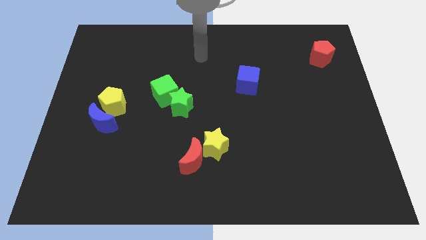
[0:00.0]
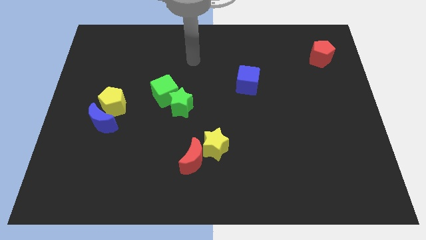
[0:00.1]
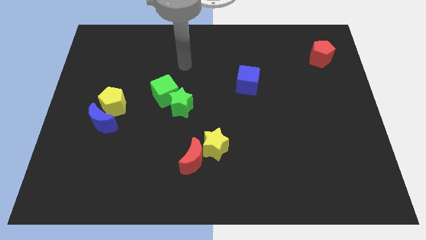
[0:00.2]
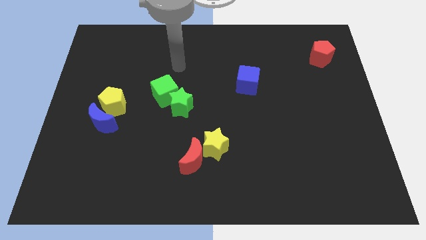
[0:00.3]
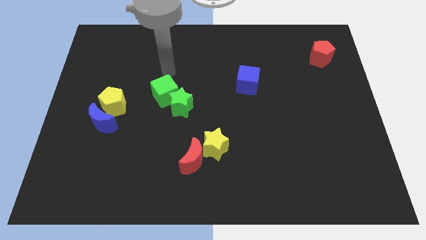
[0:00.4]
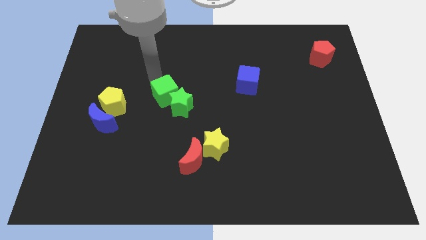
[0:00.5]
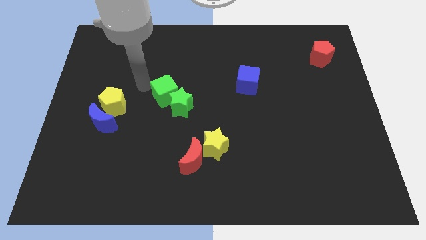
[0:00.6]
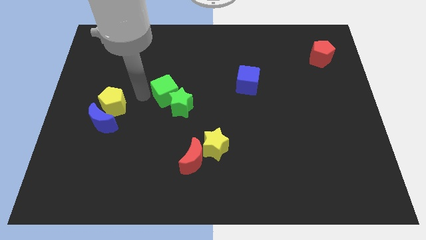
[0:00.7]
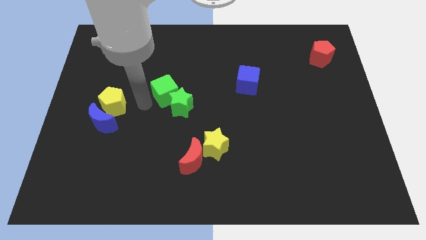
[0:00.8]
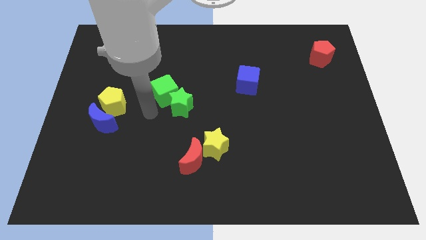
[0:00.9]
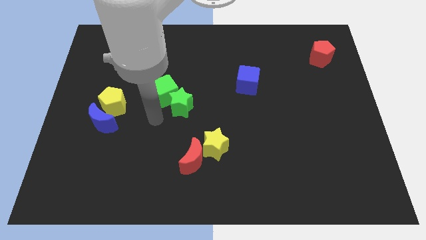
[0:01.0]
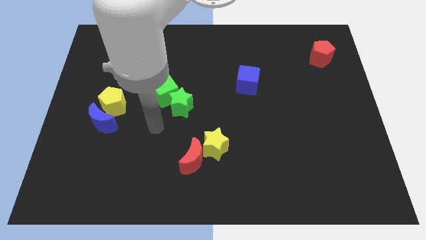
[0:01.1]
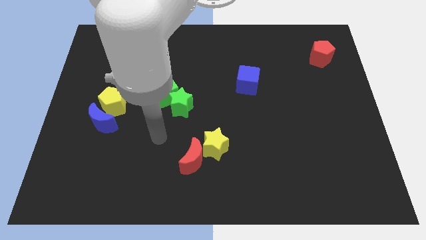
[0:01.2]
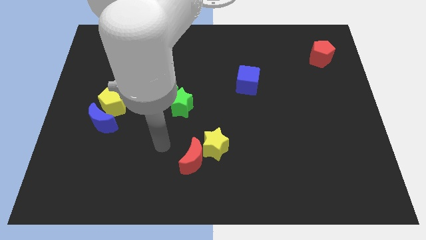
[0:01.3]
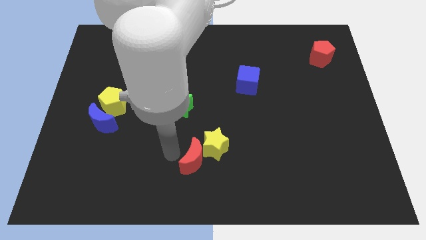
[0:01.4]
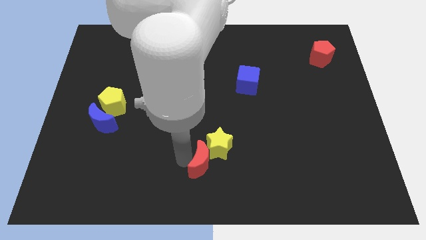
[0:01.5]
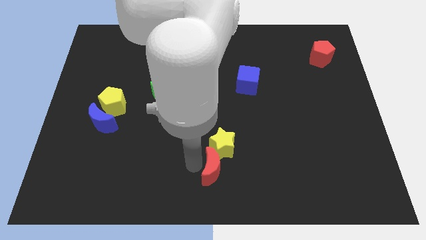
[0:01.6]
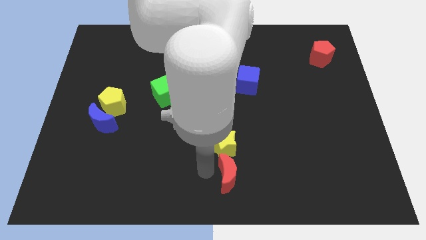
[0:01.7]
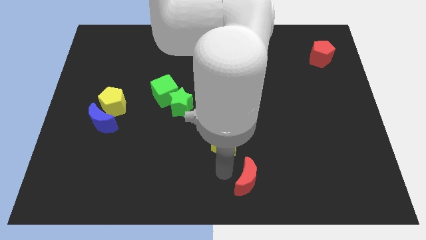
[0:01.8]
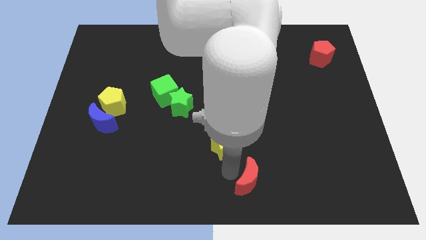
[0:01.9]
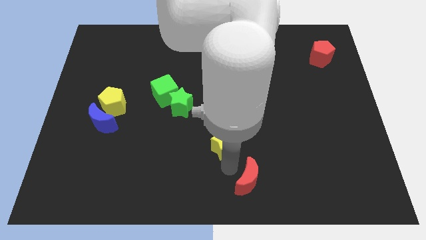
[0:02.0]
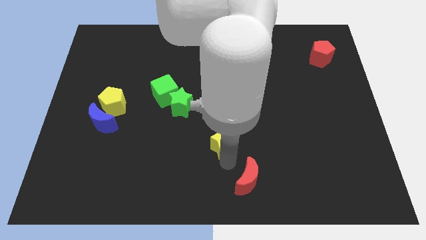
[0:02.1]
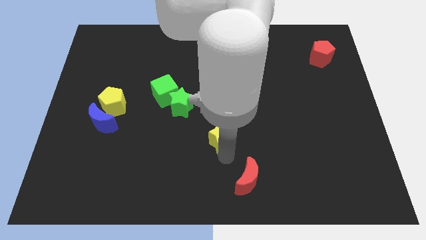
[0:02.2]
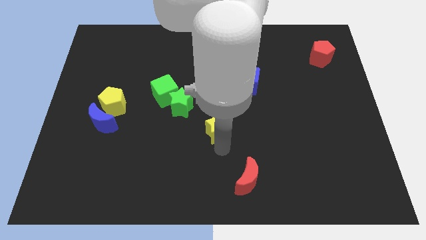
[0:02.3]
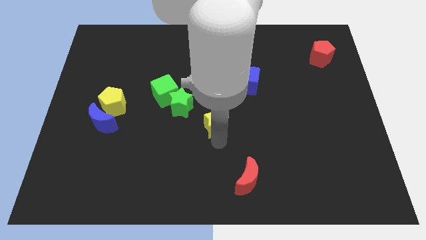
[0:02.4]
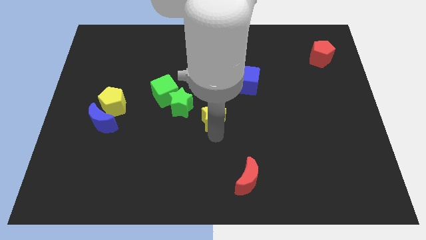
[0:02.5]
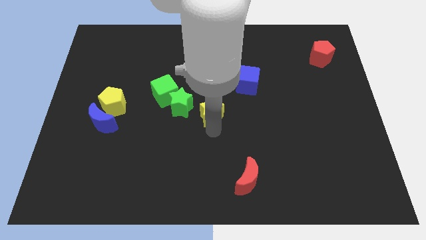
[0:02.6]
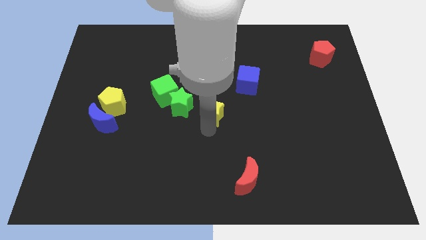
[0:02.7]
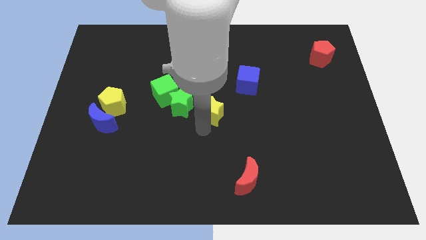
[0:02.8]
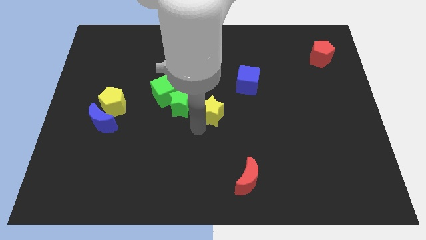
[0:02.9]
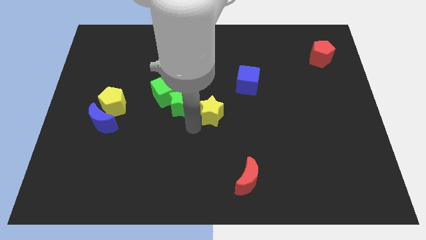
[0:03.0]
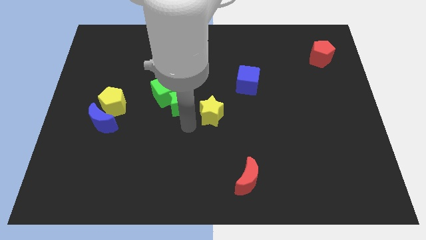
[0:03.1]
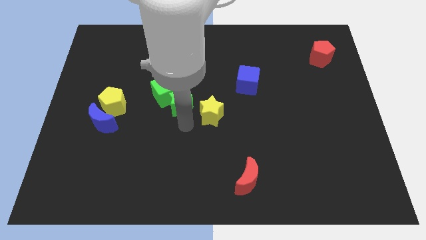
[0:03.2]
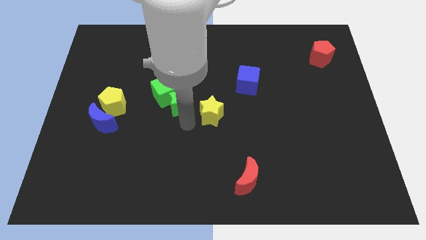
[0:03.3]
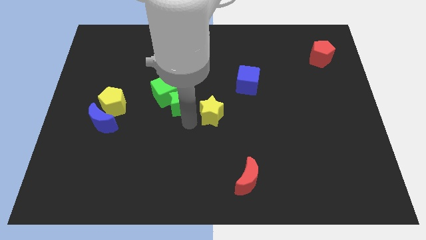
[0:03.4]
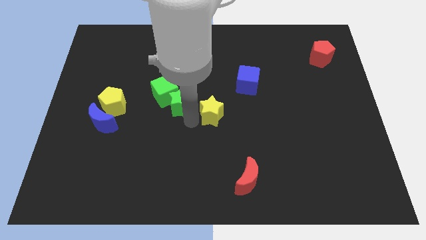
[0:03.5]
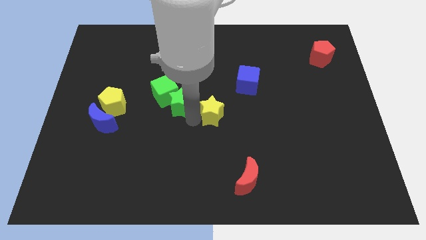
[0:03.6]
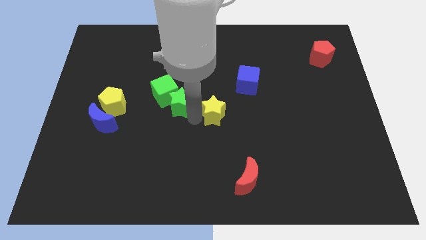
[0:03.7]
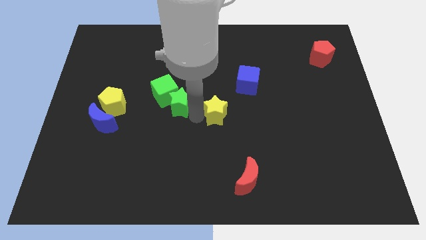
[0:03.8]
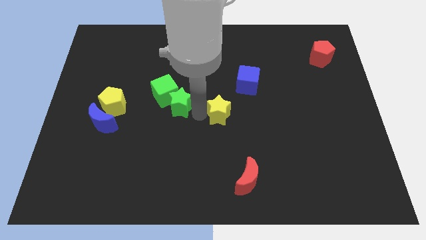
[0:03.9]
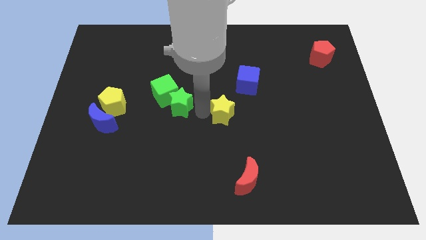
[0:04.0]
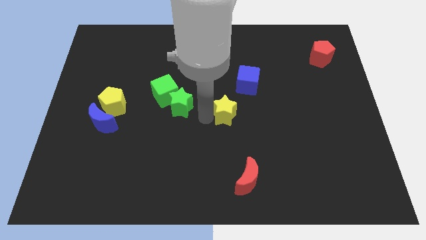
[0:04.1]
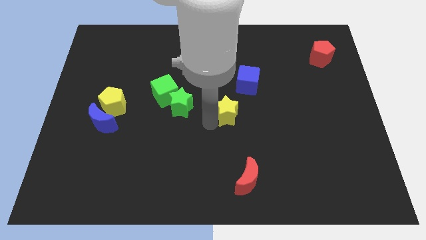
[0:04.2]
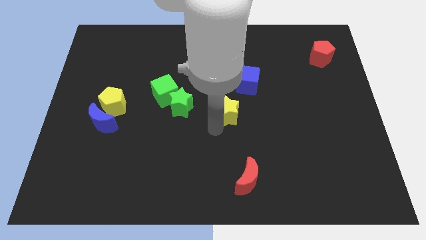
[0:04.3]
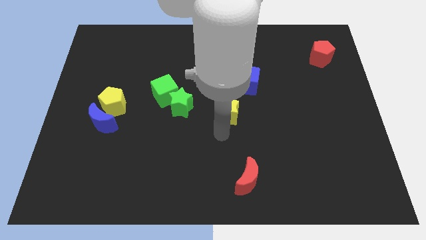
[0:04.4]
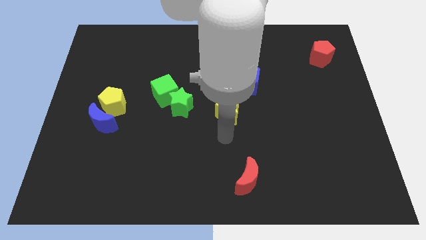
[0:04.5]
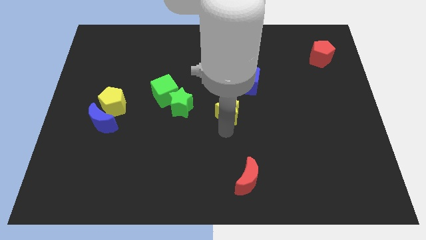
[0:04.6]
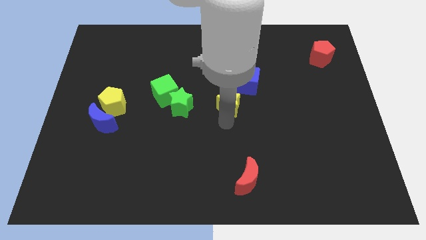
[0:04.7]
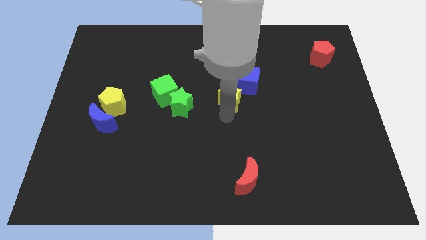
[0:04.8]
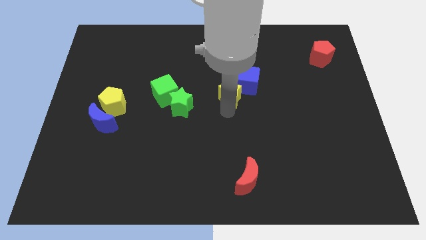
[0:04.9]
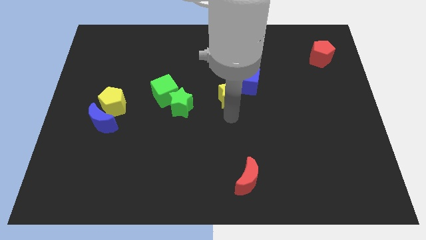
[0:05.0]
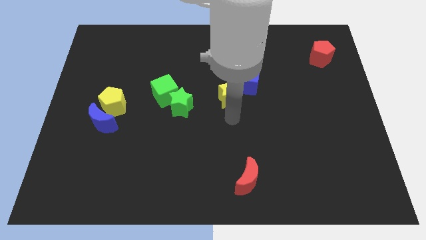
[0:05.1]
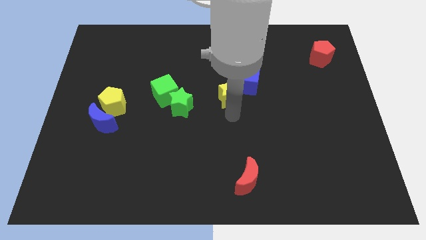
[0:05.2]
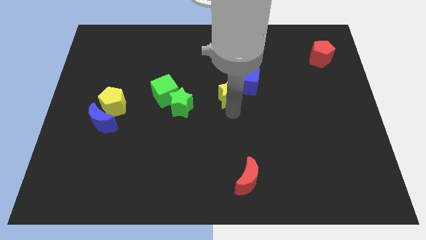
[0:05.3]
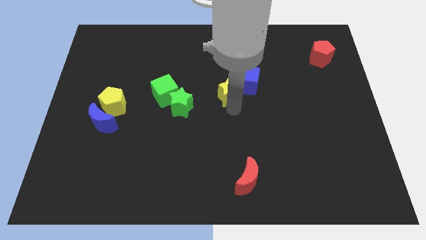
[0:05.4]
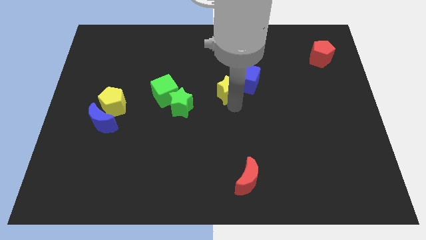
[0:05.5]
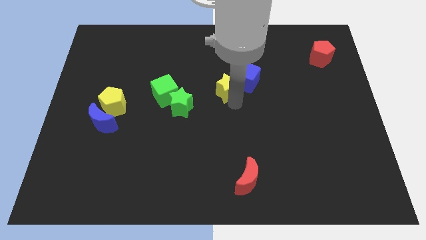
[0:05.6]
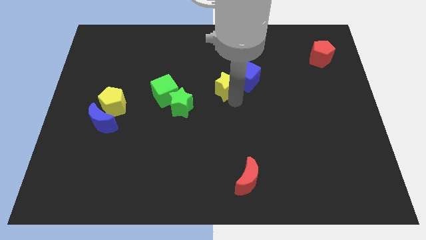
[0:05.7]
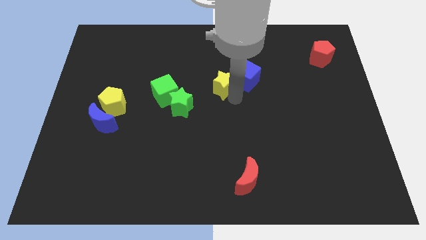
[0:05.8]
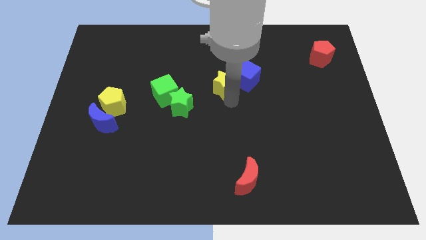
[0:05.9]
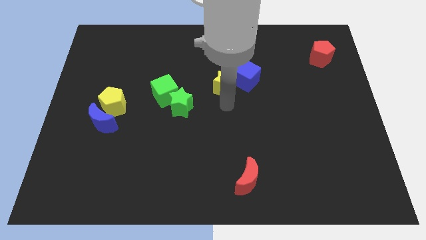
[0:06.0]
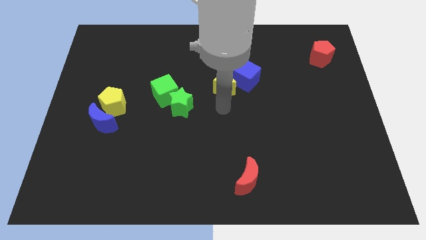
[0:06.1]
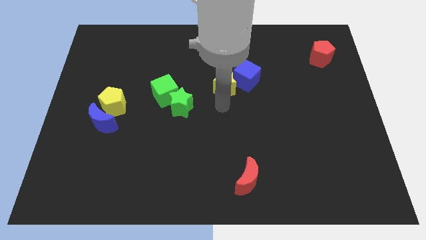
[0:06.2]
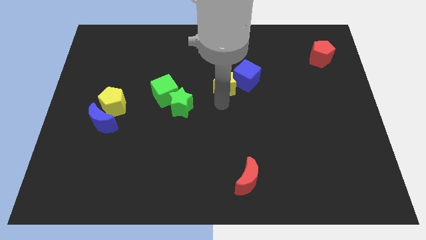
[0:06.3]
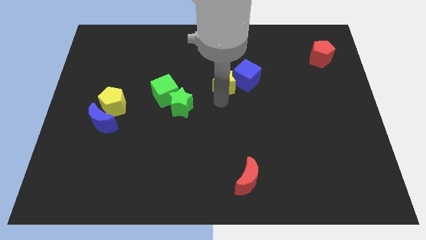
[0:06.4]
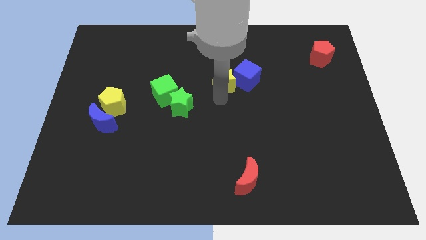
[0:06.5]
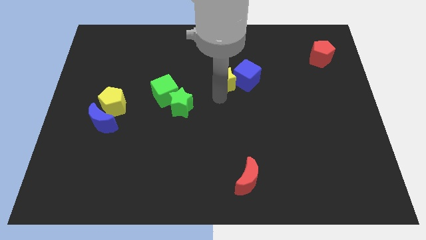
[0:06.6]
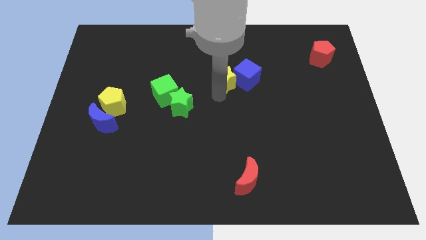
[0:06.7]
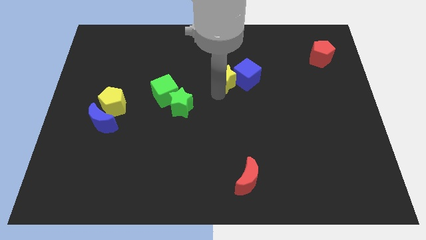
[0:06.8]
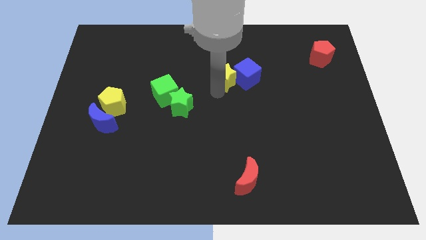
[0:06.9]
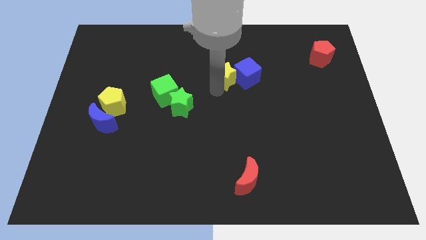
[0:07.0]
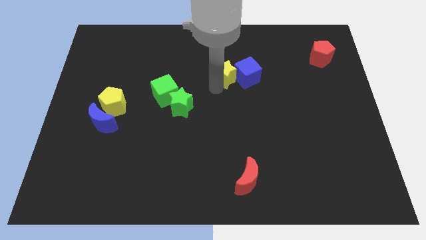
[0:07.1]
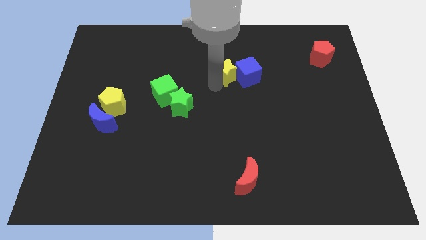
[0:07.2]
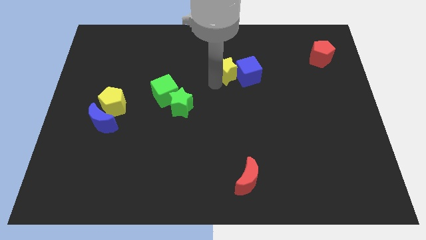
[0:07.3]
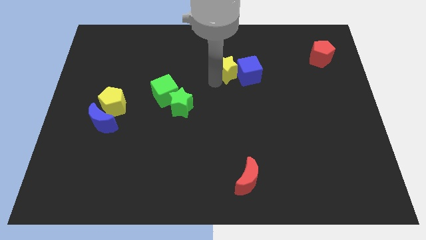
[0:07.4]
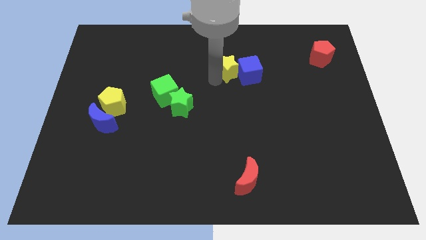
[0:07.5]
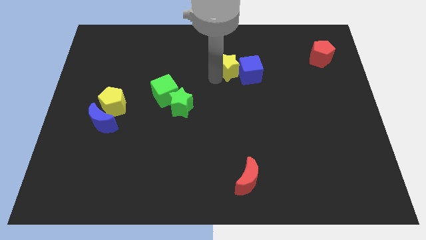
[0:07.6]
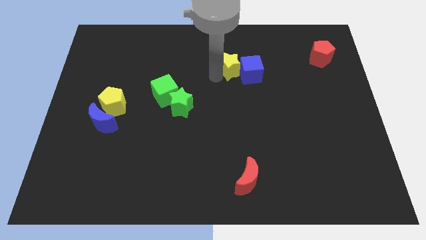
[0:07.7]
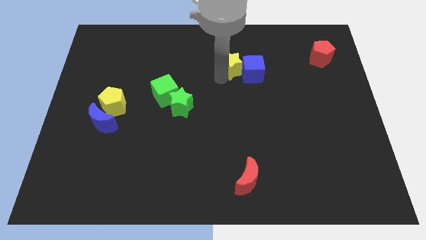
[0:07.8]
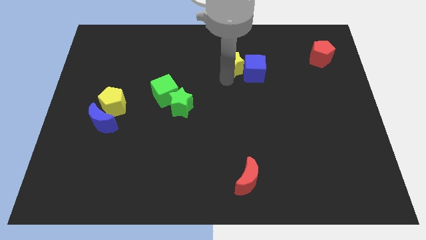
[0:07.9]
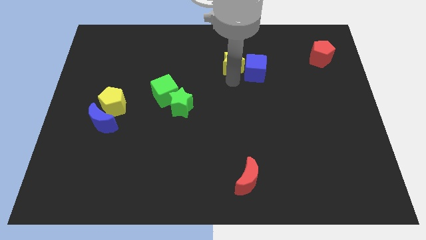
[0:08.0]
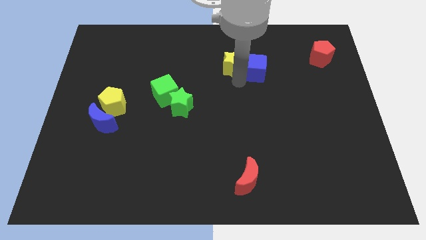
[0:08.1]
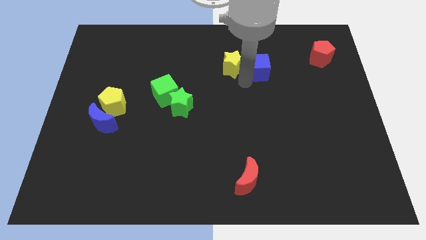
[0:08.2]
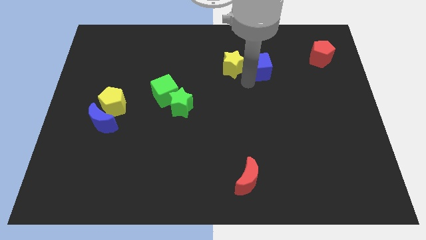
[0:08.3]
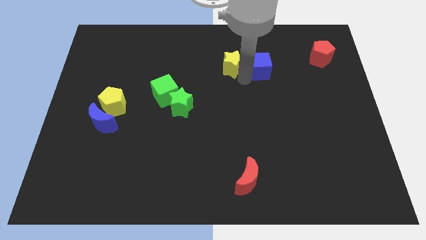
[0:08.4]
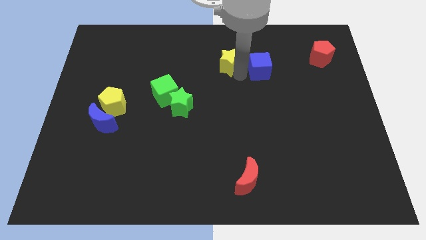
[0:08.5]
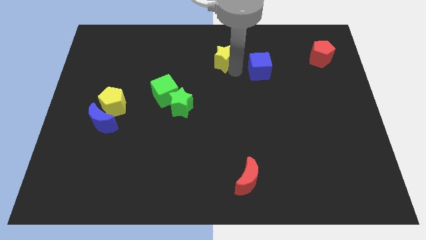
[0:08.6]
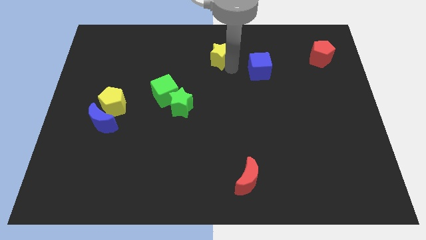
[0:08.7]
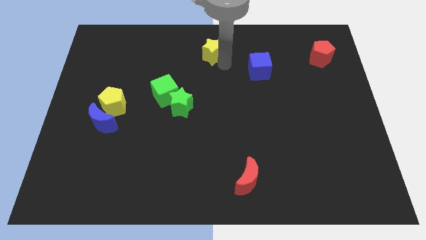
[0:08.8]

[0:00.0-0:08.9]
put the yellow star to the top
